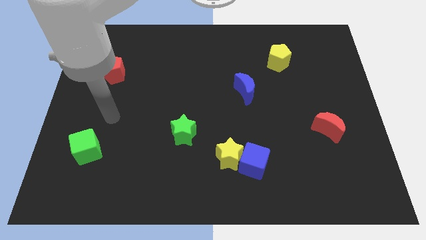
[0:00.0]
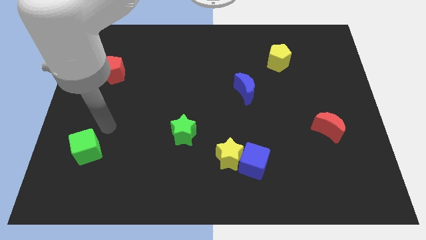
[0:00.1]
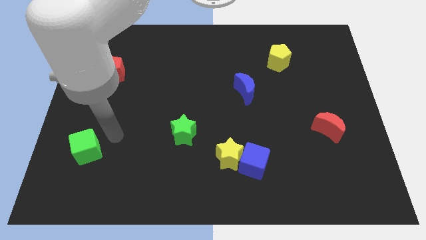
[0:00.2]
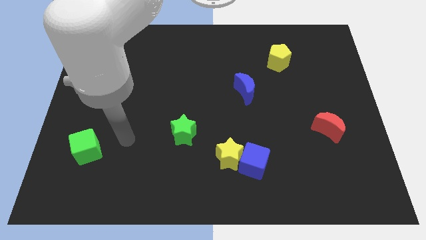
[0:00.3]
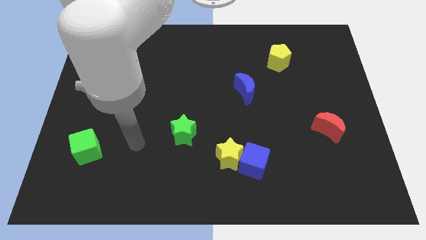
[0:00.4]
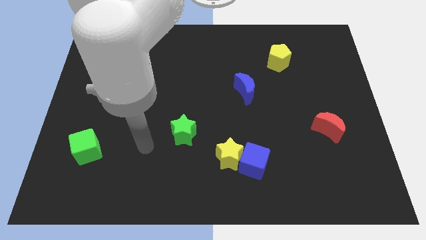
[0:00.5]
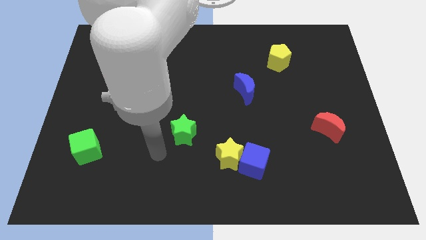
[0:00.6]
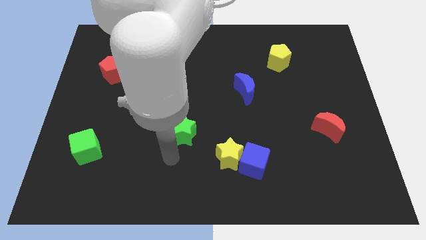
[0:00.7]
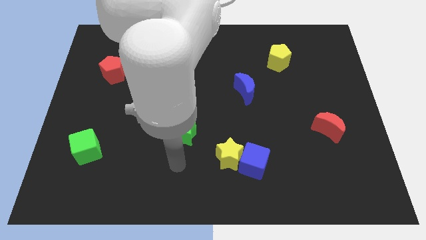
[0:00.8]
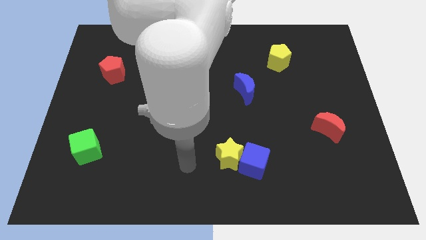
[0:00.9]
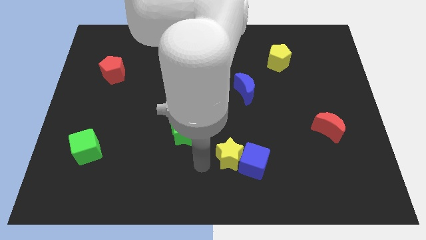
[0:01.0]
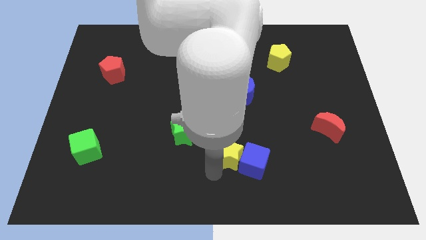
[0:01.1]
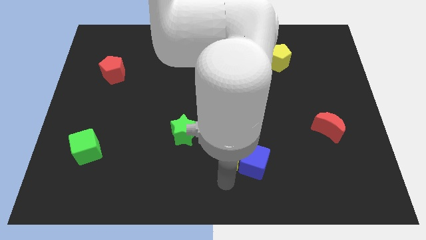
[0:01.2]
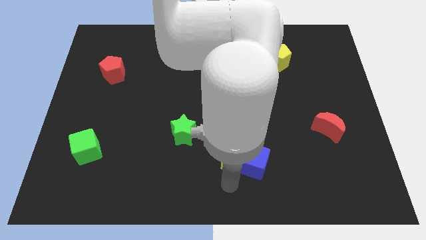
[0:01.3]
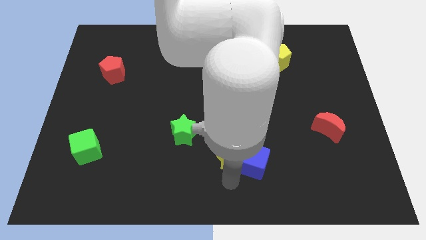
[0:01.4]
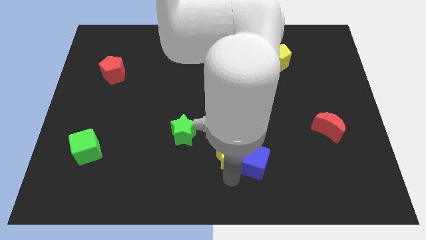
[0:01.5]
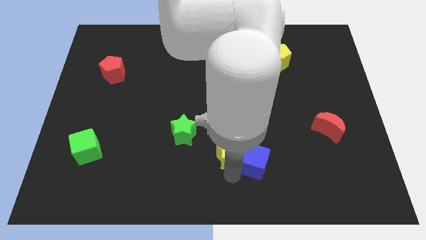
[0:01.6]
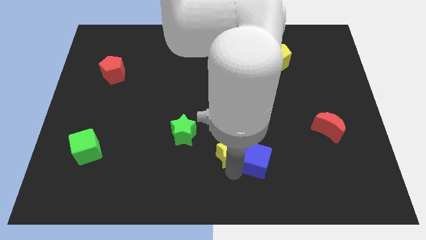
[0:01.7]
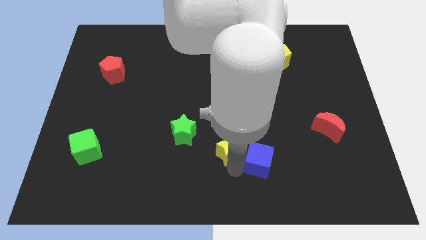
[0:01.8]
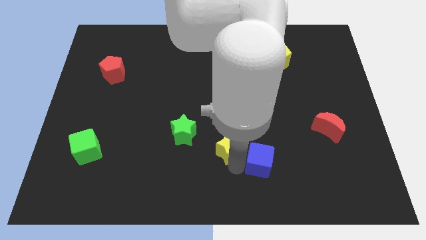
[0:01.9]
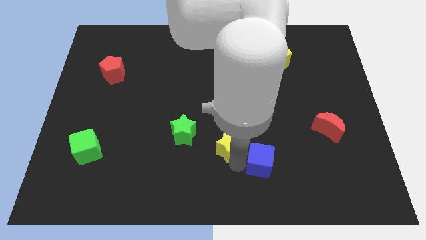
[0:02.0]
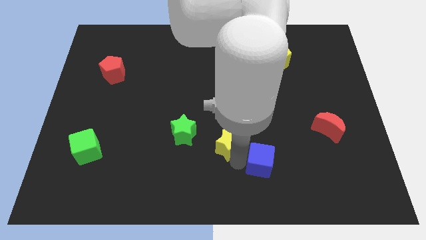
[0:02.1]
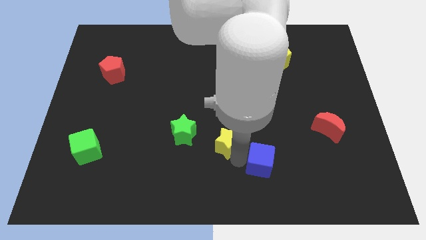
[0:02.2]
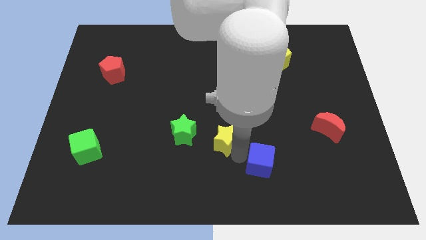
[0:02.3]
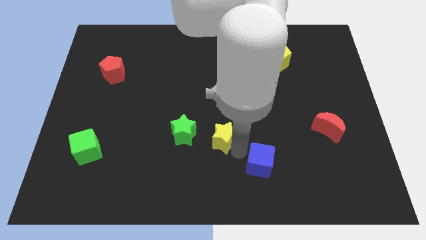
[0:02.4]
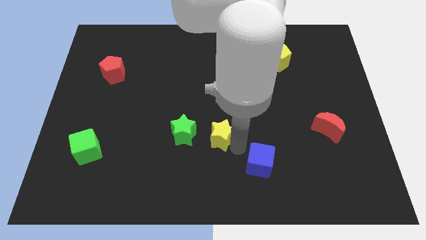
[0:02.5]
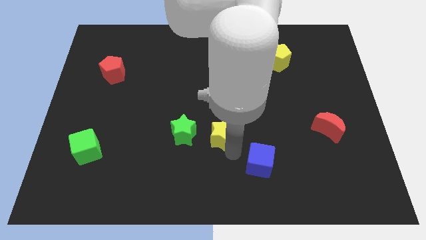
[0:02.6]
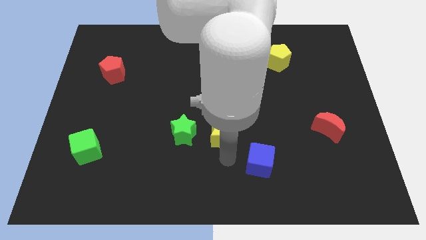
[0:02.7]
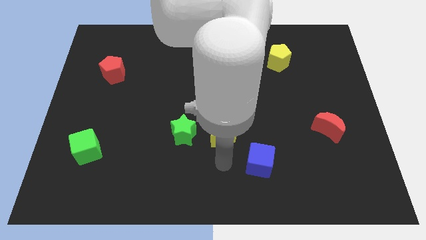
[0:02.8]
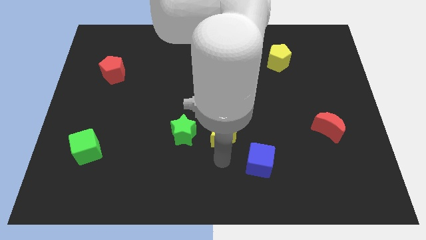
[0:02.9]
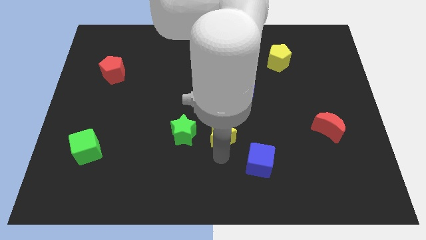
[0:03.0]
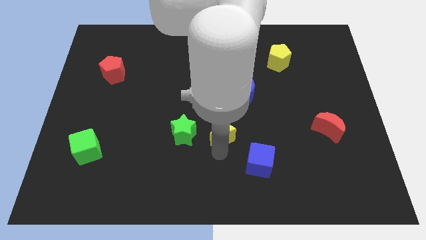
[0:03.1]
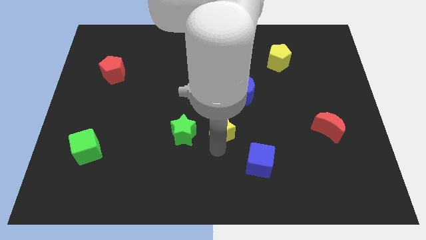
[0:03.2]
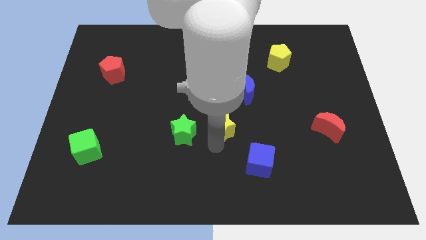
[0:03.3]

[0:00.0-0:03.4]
slightly slide the yellow star up

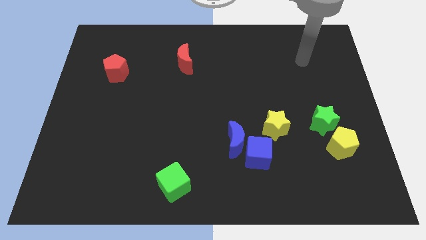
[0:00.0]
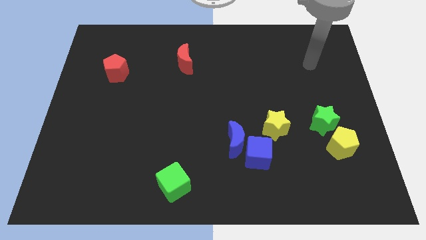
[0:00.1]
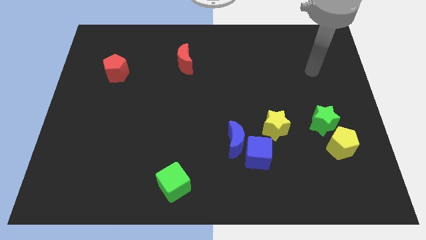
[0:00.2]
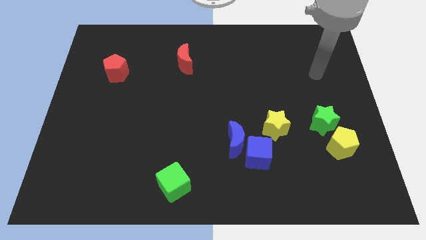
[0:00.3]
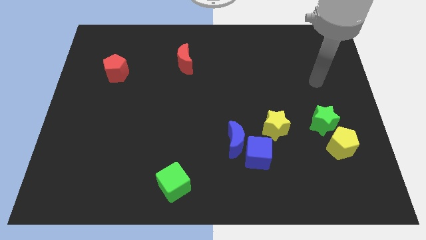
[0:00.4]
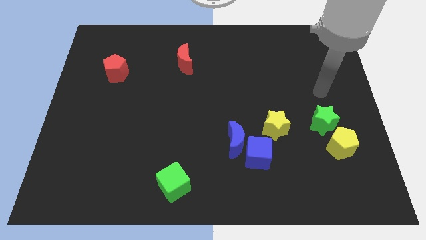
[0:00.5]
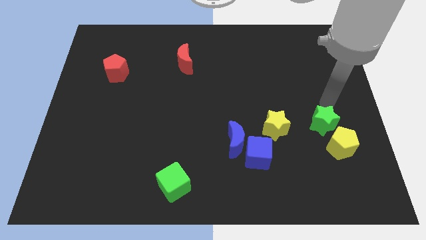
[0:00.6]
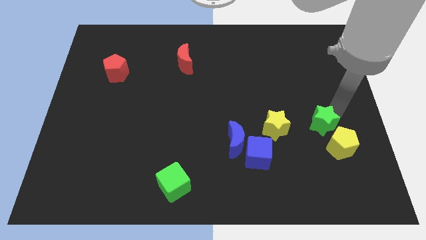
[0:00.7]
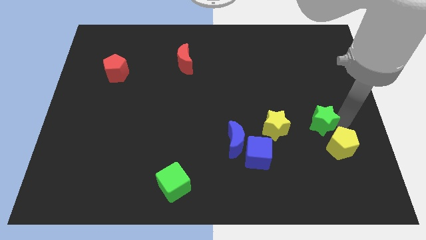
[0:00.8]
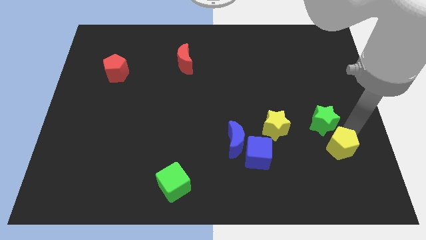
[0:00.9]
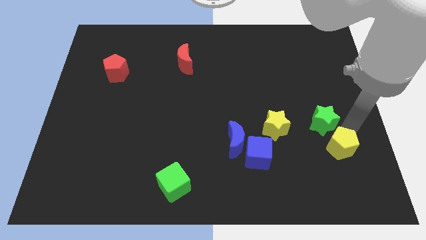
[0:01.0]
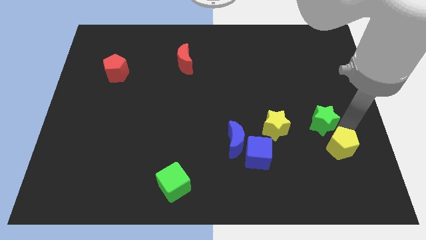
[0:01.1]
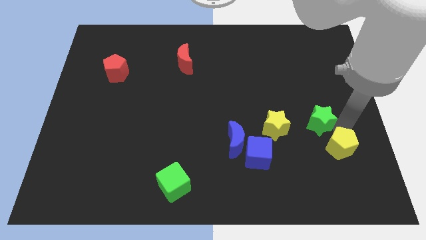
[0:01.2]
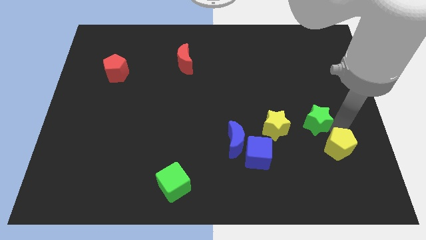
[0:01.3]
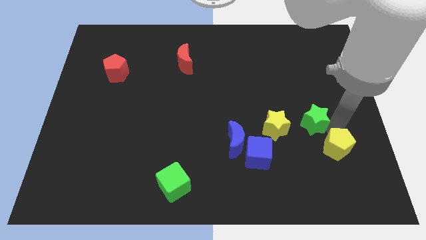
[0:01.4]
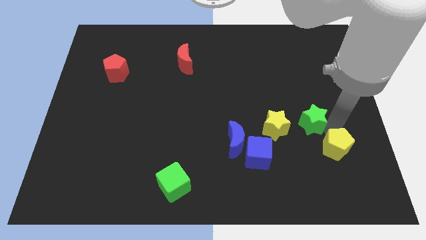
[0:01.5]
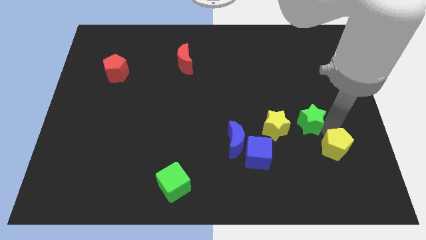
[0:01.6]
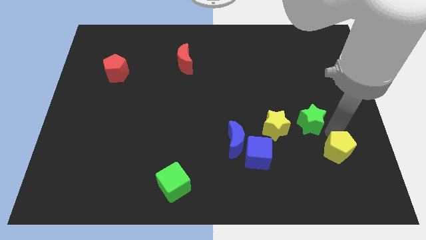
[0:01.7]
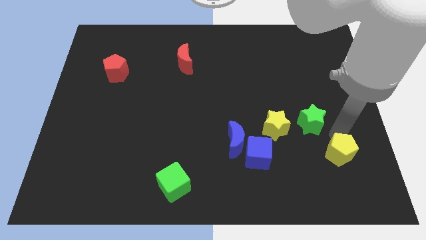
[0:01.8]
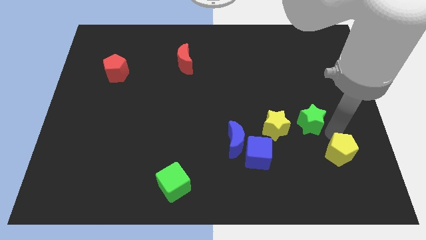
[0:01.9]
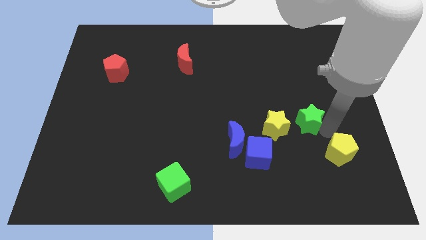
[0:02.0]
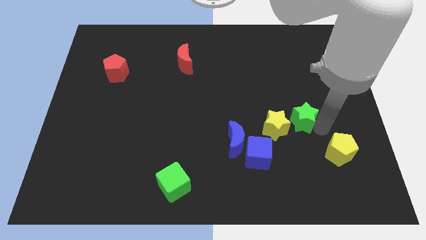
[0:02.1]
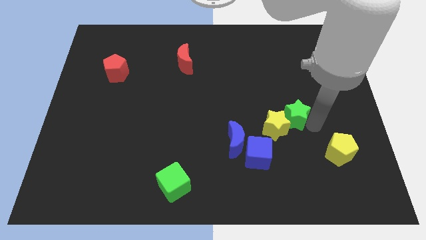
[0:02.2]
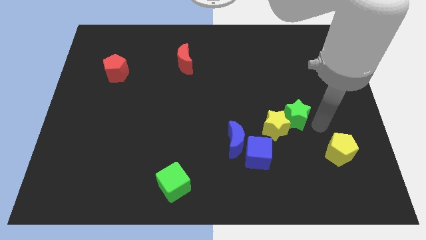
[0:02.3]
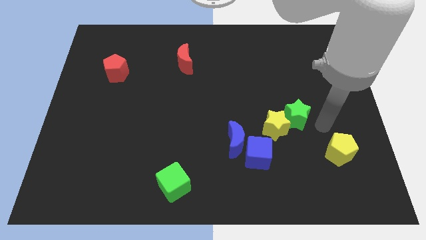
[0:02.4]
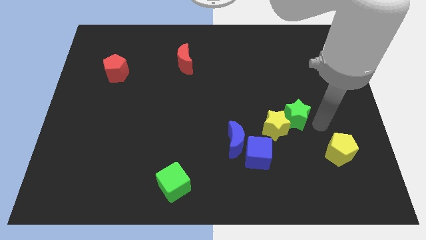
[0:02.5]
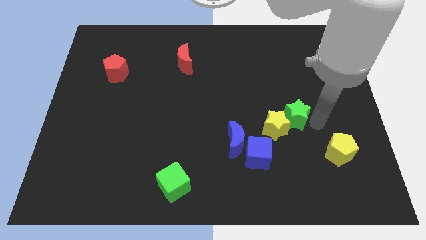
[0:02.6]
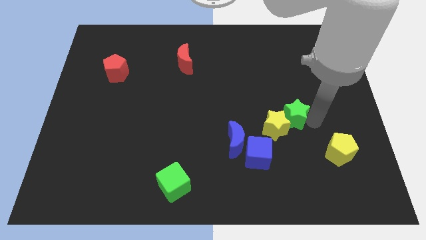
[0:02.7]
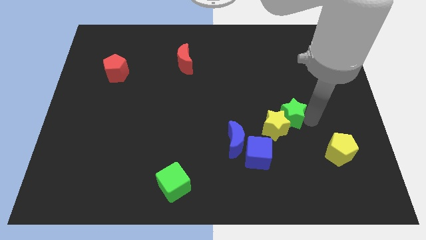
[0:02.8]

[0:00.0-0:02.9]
push the green star a bit left

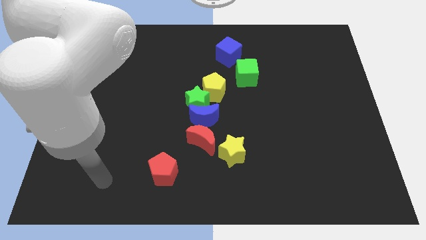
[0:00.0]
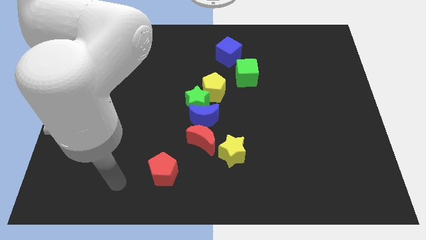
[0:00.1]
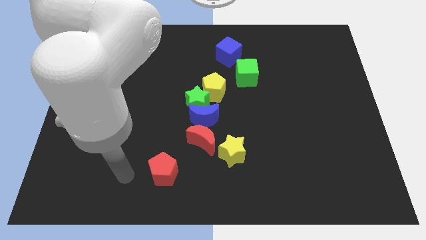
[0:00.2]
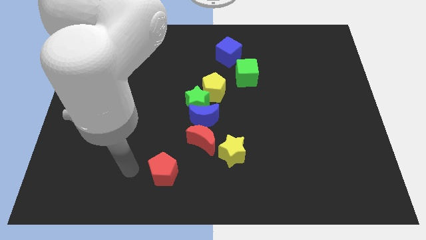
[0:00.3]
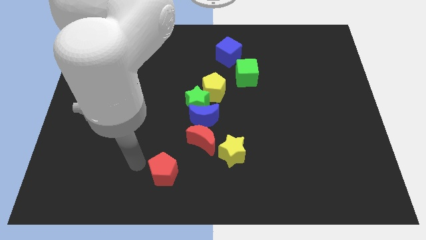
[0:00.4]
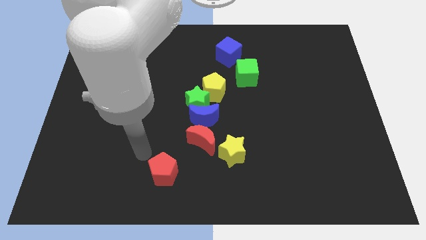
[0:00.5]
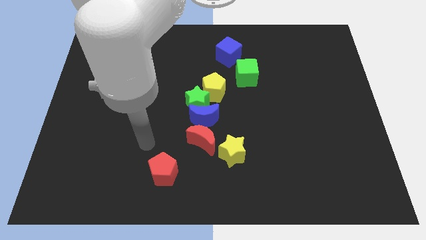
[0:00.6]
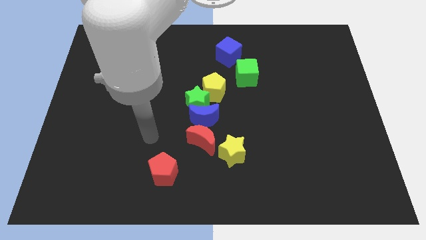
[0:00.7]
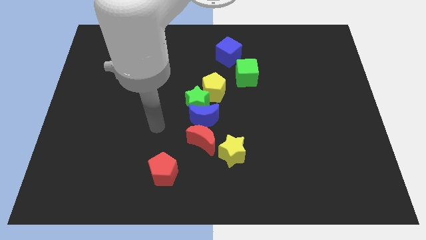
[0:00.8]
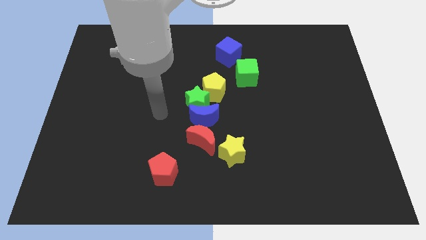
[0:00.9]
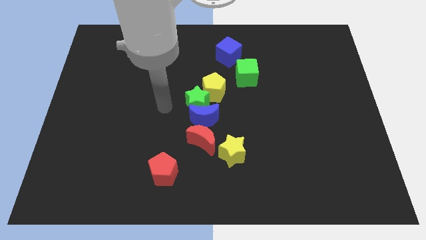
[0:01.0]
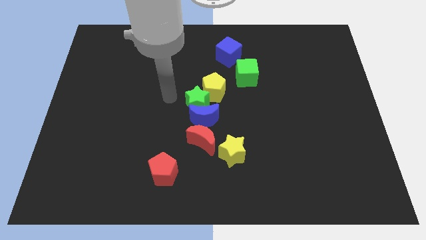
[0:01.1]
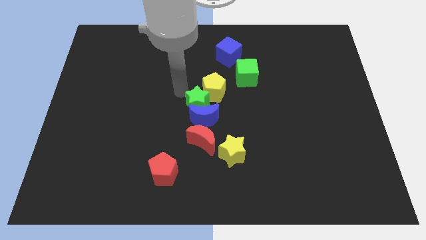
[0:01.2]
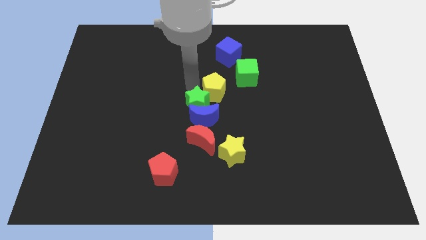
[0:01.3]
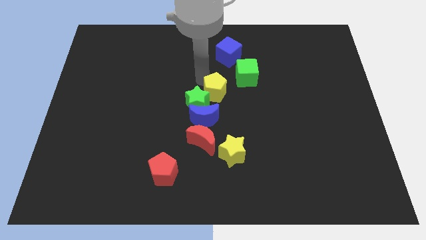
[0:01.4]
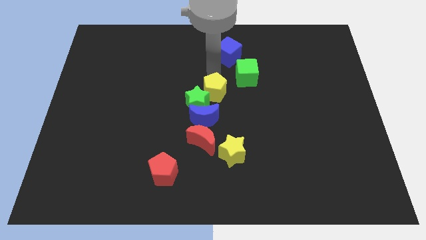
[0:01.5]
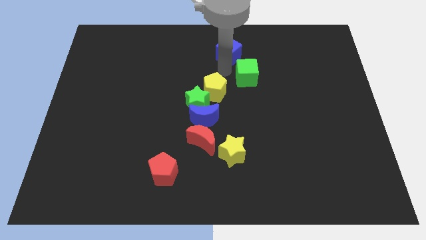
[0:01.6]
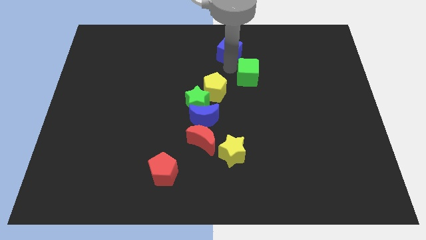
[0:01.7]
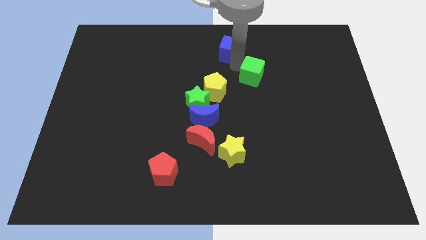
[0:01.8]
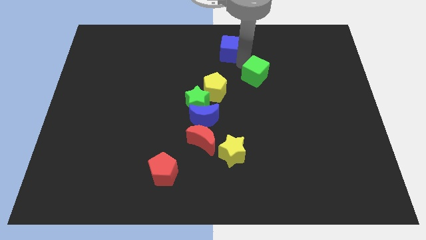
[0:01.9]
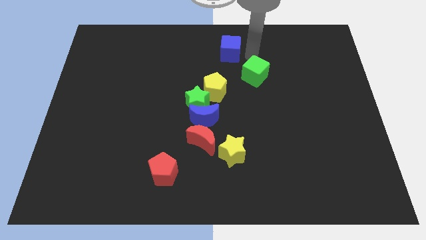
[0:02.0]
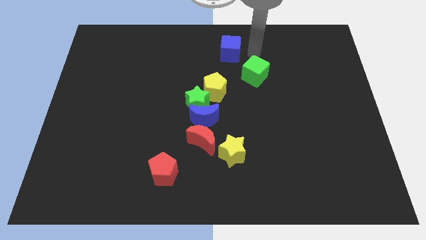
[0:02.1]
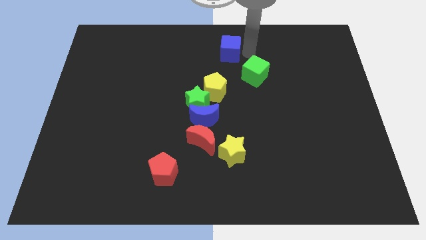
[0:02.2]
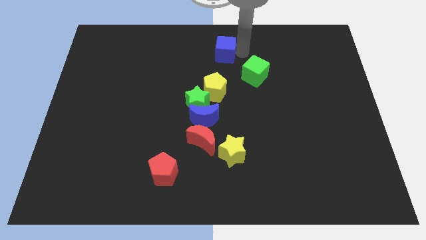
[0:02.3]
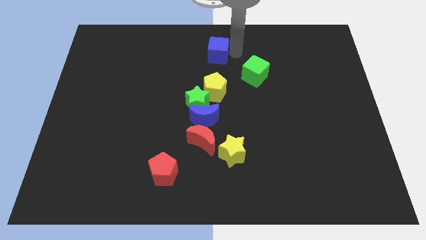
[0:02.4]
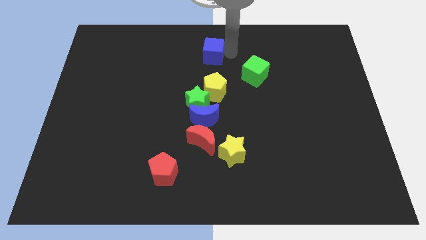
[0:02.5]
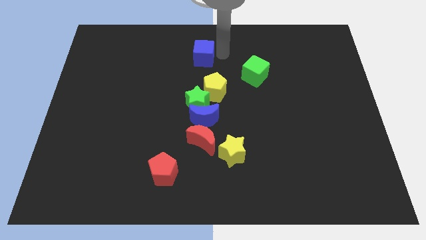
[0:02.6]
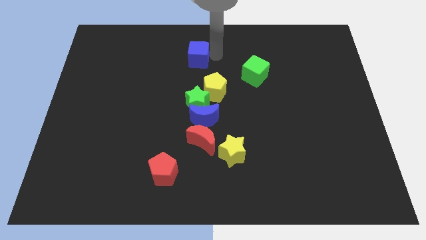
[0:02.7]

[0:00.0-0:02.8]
move the blue cube a little bit to the left
